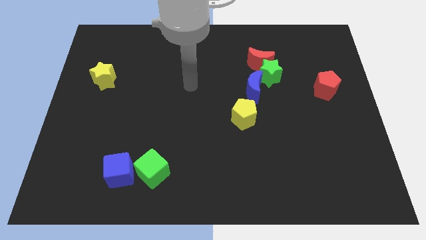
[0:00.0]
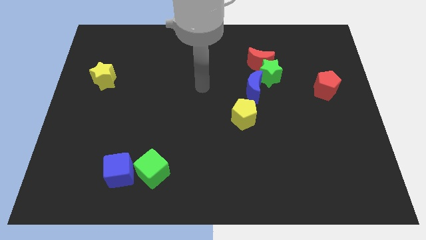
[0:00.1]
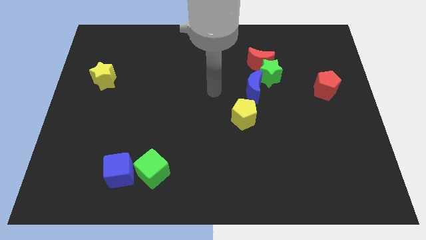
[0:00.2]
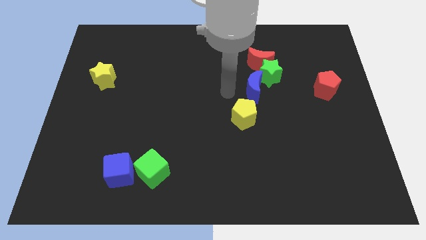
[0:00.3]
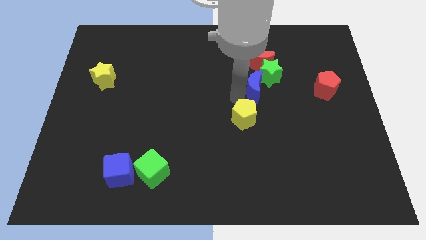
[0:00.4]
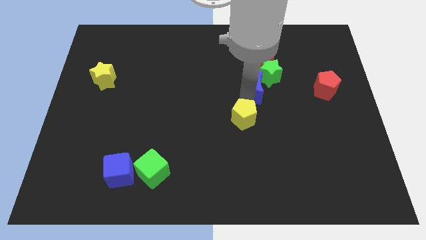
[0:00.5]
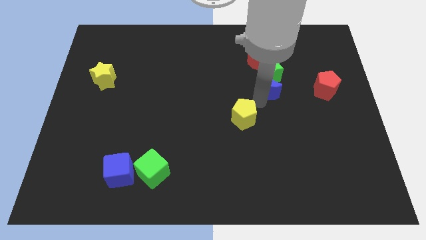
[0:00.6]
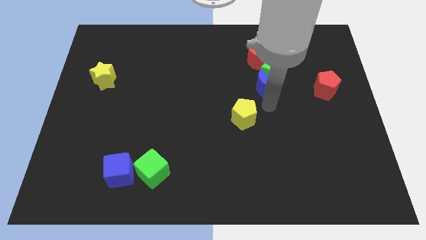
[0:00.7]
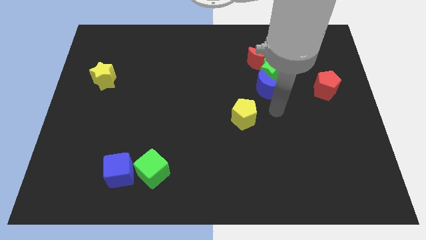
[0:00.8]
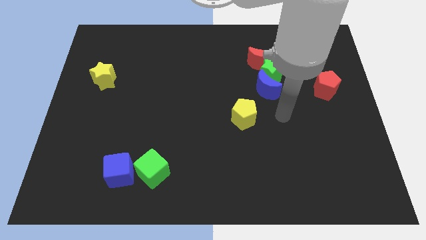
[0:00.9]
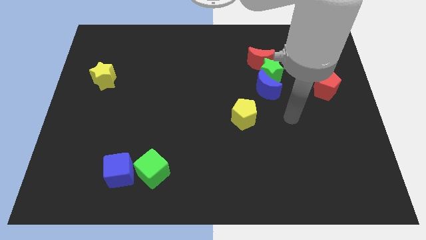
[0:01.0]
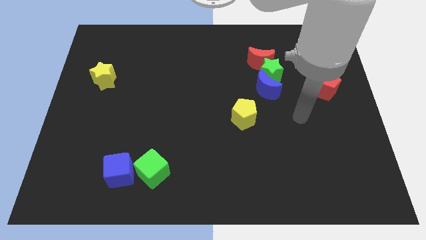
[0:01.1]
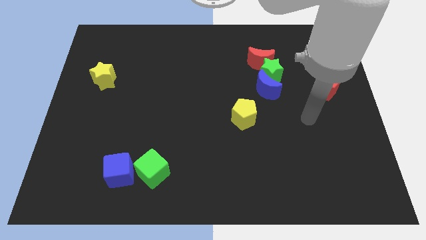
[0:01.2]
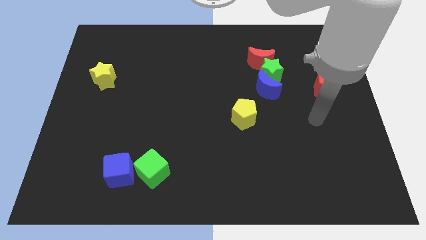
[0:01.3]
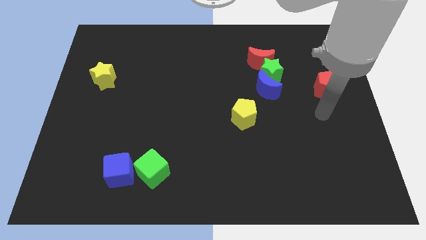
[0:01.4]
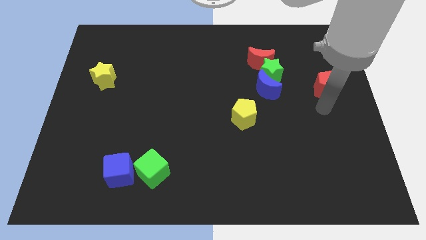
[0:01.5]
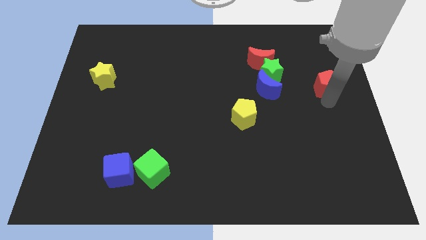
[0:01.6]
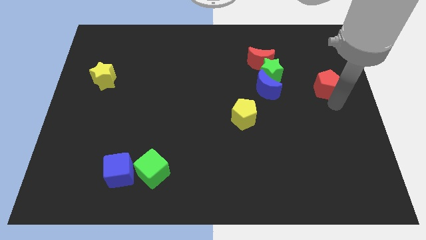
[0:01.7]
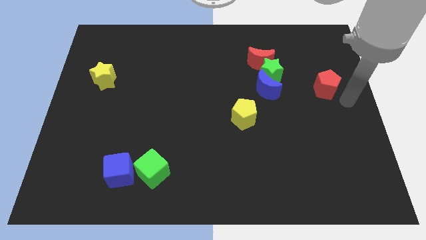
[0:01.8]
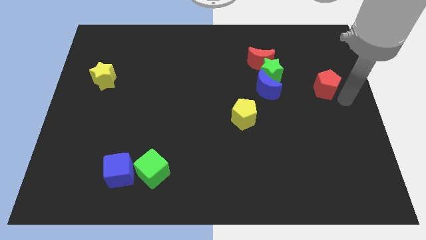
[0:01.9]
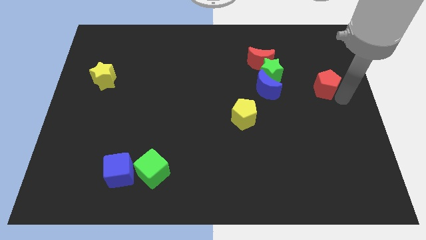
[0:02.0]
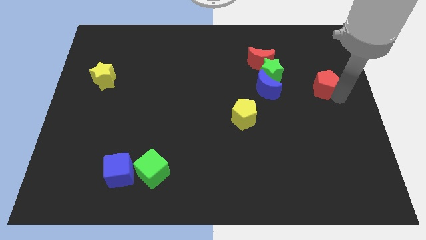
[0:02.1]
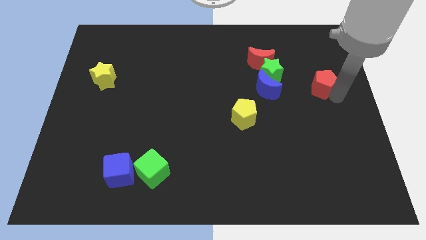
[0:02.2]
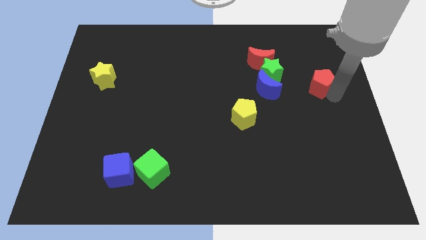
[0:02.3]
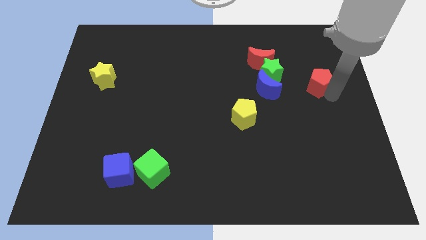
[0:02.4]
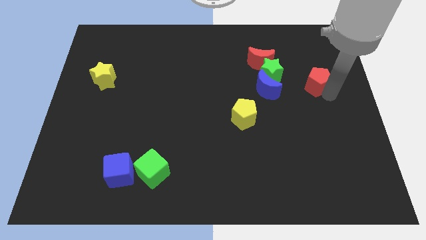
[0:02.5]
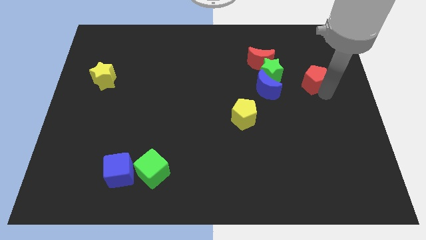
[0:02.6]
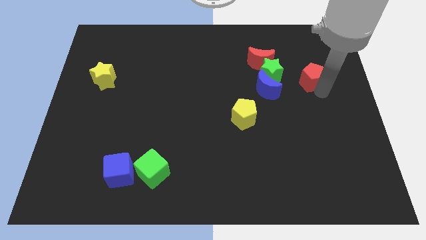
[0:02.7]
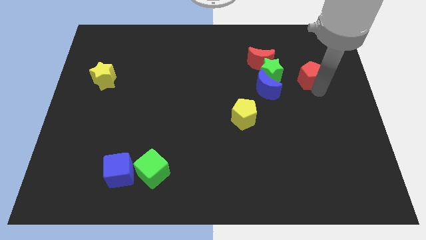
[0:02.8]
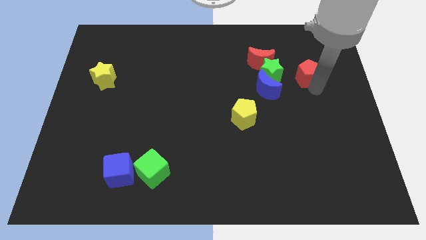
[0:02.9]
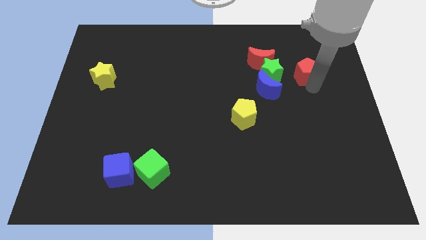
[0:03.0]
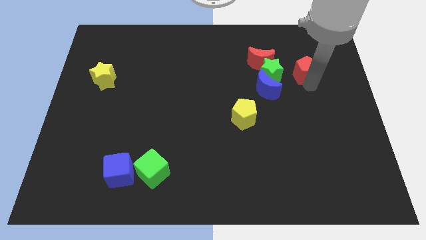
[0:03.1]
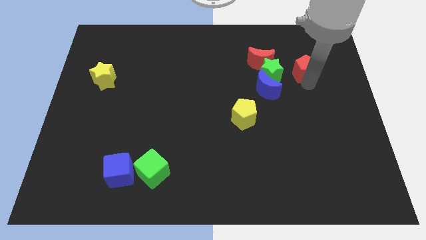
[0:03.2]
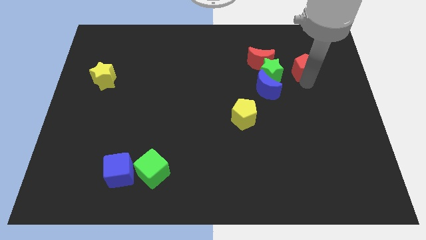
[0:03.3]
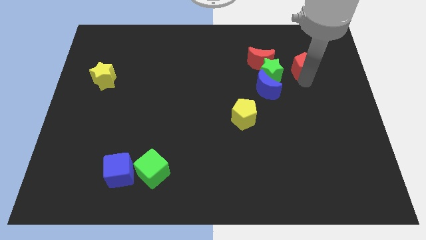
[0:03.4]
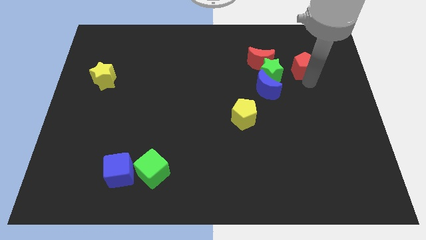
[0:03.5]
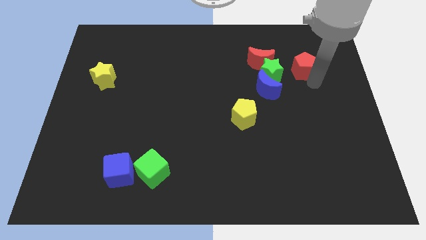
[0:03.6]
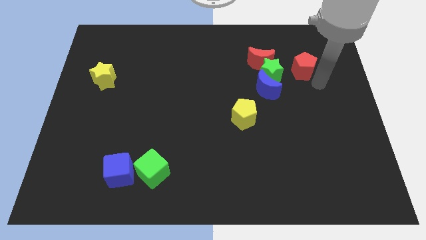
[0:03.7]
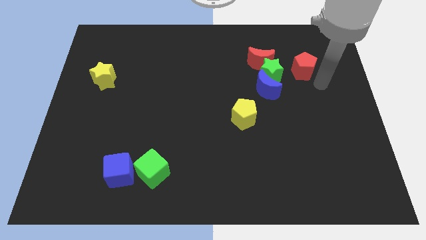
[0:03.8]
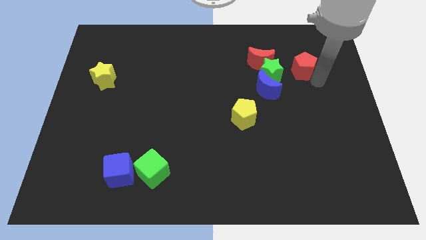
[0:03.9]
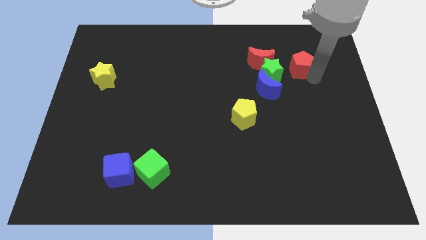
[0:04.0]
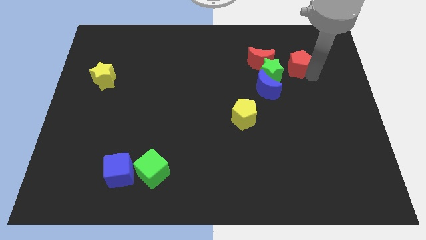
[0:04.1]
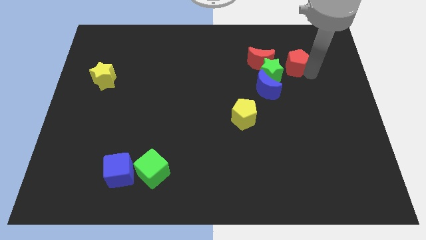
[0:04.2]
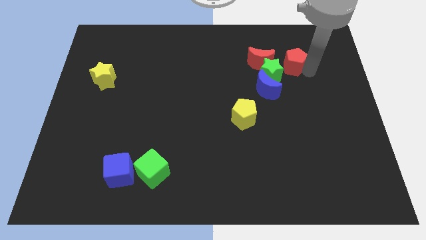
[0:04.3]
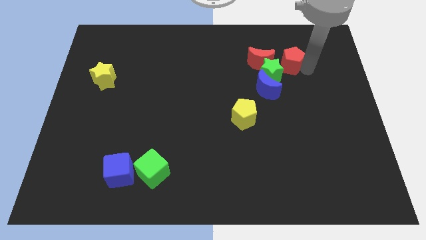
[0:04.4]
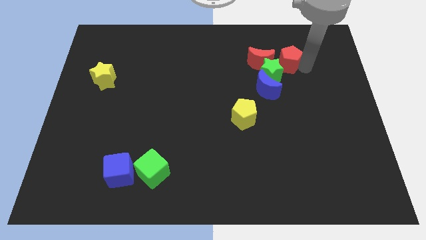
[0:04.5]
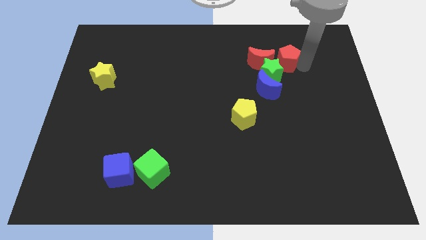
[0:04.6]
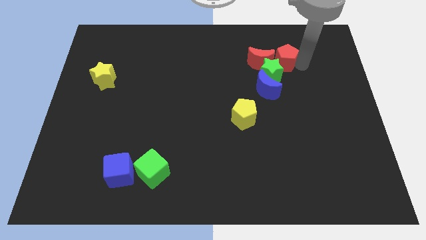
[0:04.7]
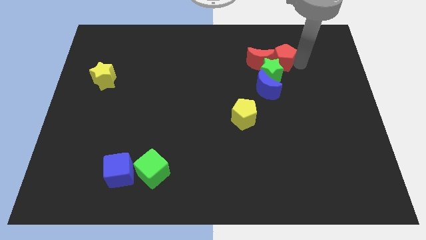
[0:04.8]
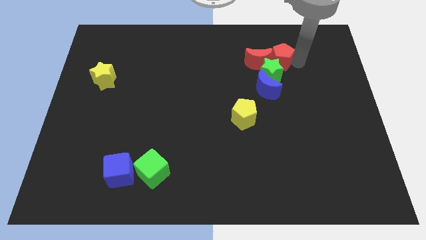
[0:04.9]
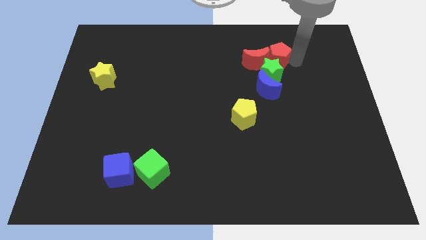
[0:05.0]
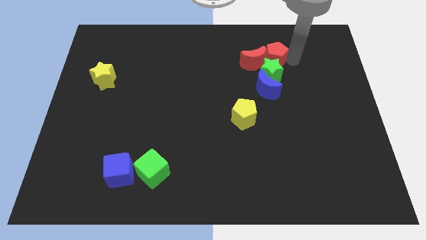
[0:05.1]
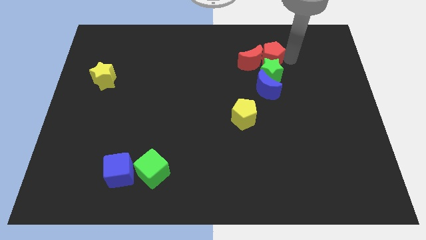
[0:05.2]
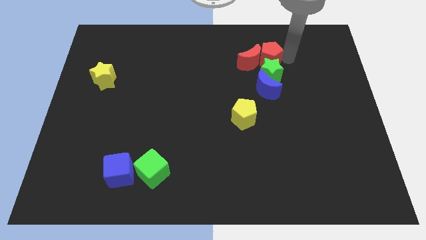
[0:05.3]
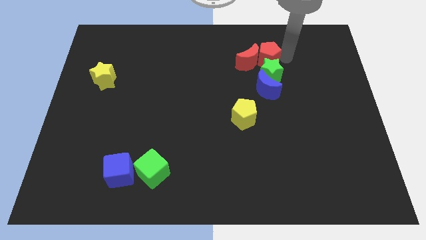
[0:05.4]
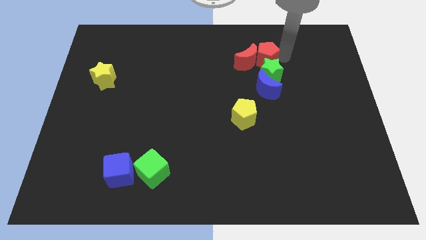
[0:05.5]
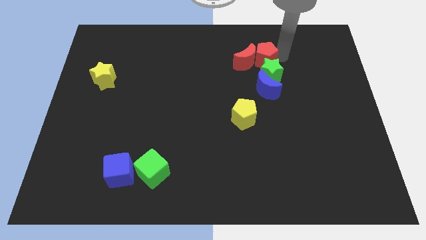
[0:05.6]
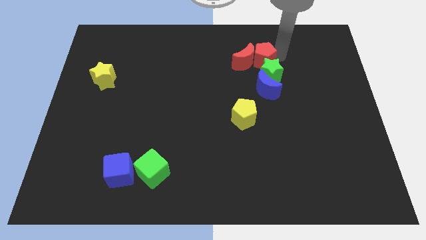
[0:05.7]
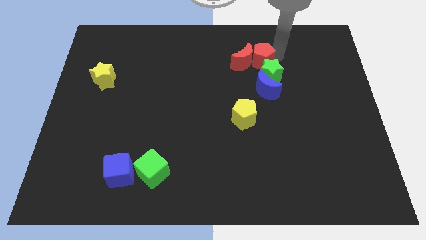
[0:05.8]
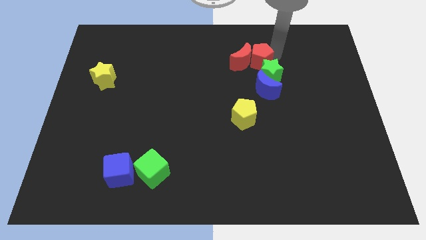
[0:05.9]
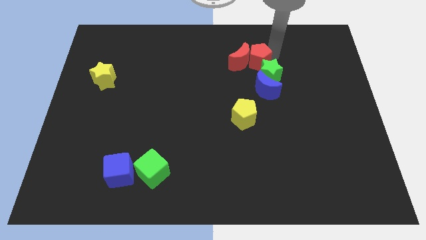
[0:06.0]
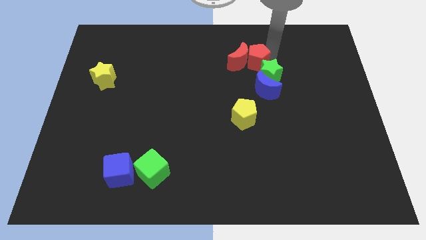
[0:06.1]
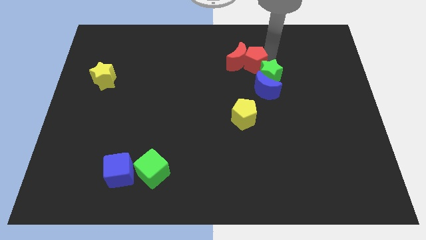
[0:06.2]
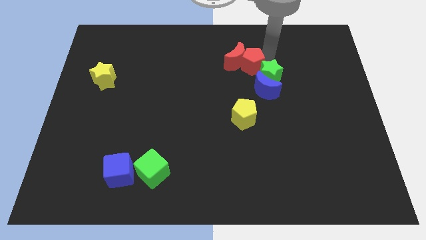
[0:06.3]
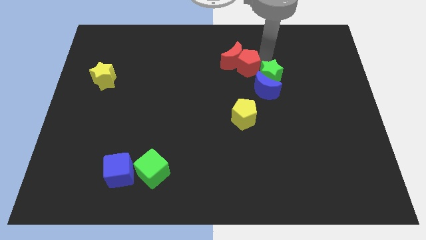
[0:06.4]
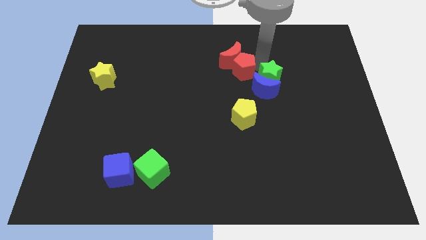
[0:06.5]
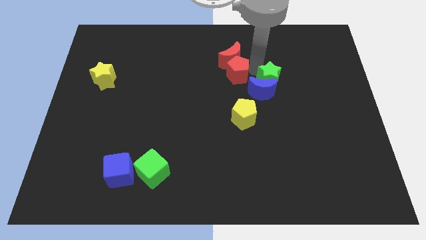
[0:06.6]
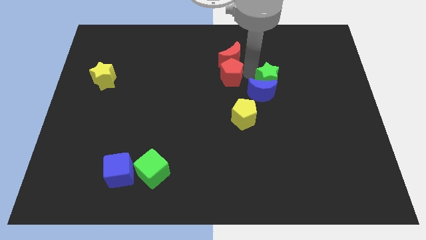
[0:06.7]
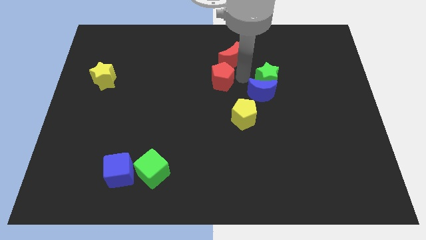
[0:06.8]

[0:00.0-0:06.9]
slide the red pentagon just left of the blue moon
